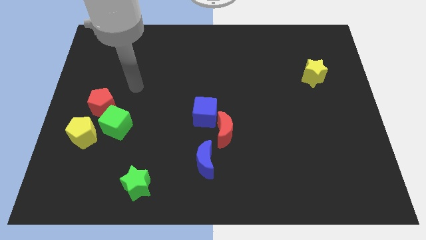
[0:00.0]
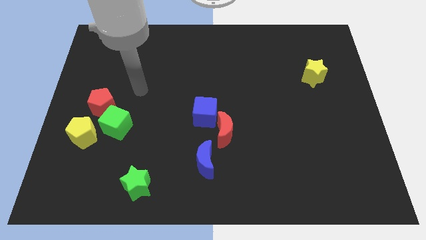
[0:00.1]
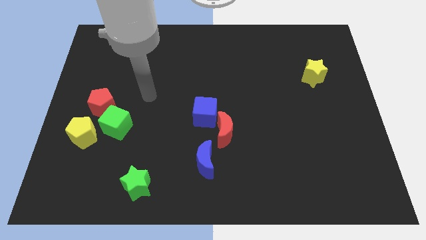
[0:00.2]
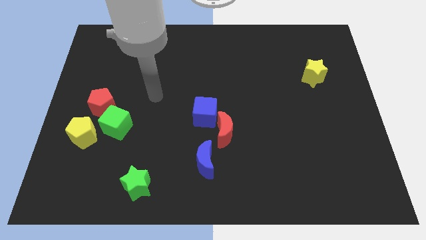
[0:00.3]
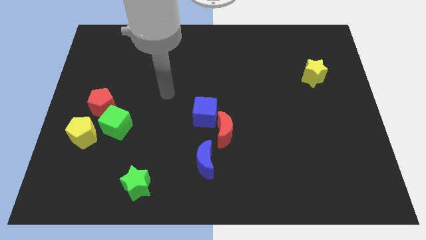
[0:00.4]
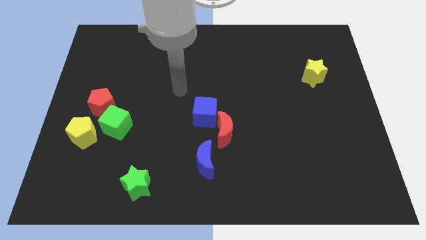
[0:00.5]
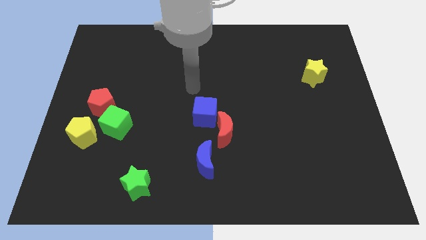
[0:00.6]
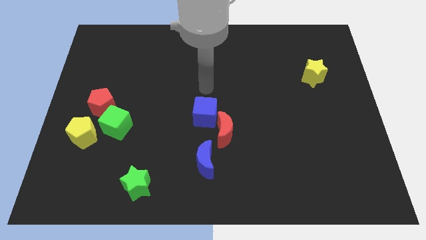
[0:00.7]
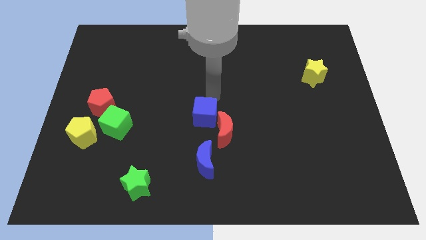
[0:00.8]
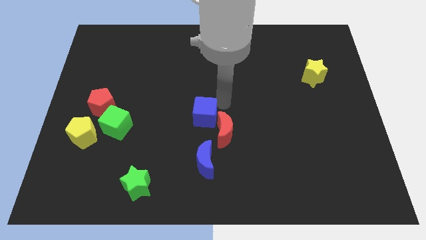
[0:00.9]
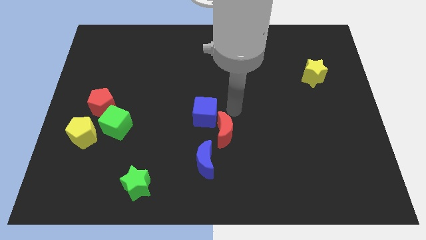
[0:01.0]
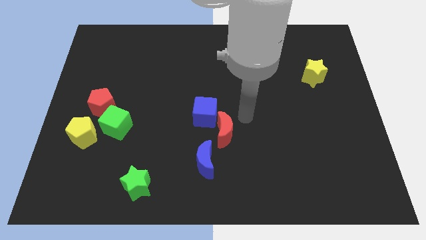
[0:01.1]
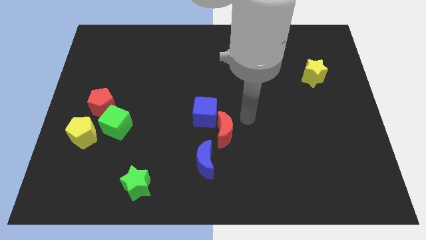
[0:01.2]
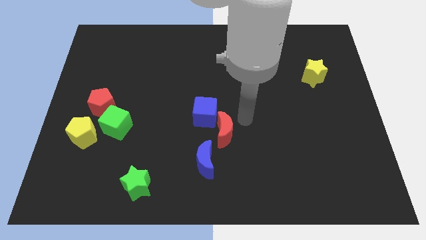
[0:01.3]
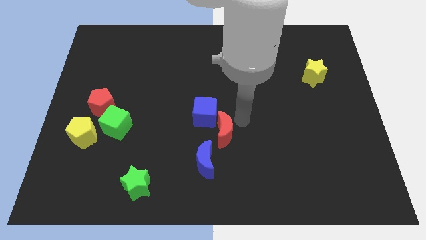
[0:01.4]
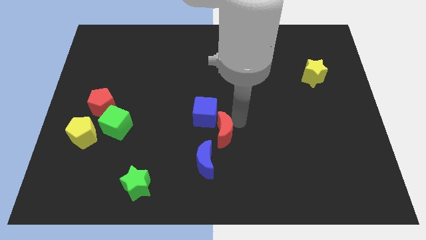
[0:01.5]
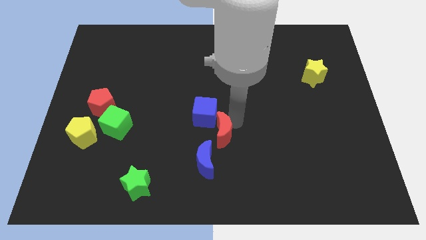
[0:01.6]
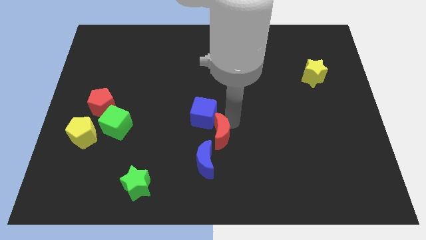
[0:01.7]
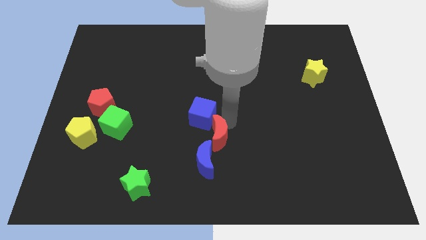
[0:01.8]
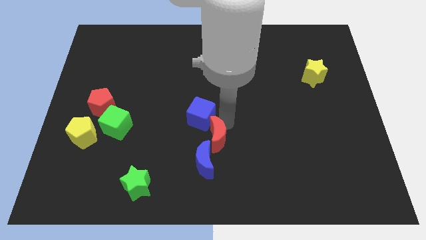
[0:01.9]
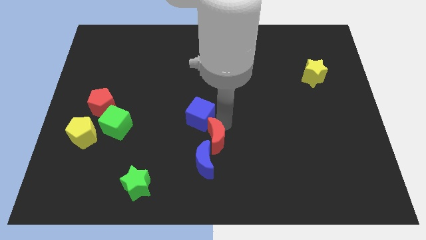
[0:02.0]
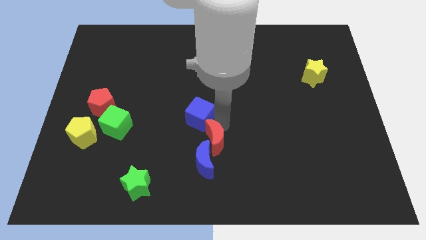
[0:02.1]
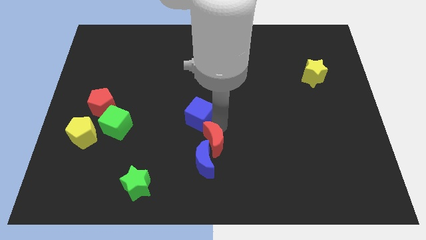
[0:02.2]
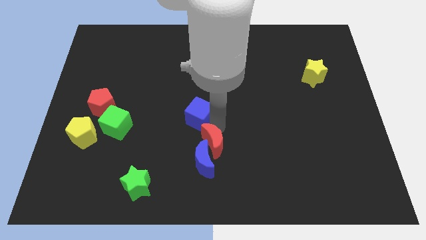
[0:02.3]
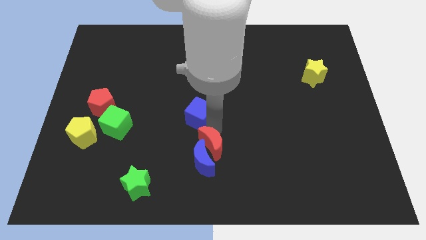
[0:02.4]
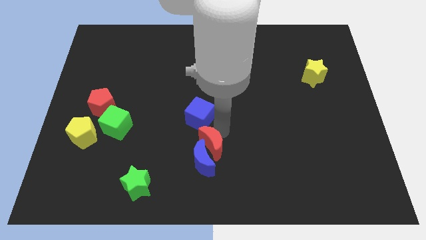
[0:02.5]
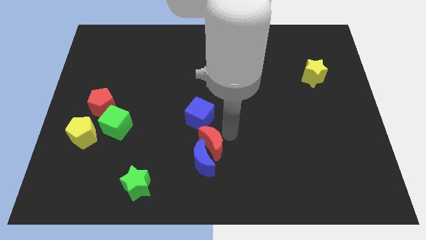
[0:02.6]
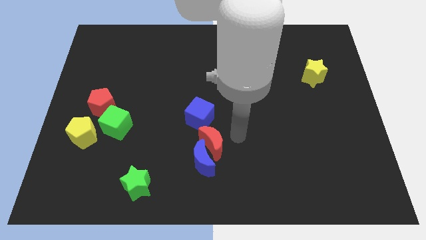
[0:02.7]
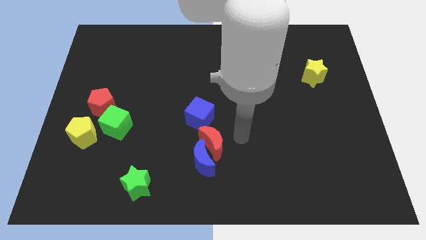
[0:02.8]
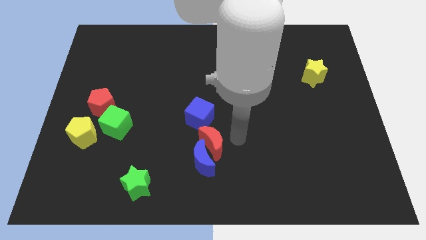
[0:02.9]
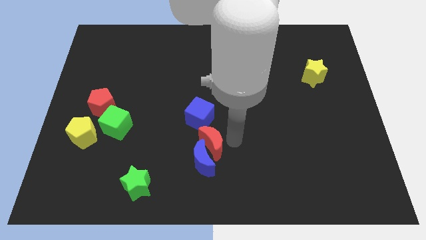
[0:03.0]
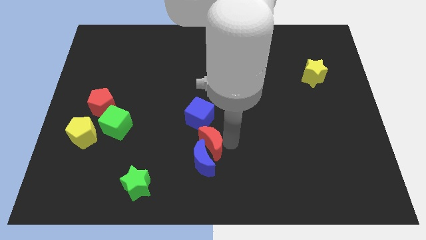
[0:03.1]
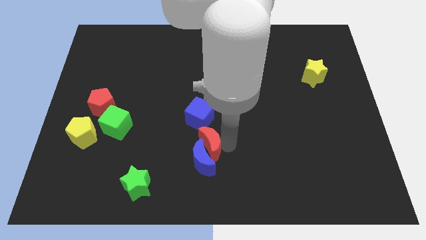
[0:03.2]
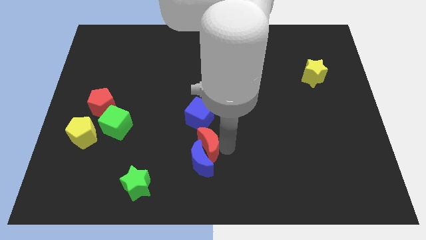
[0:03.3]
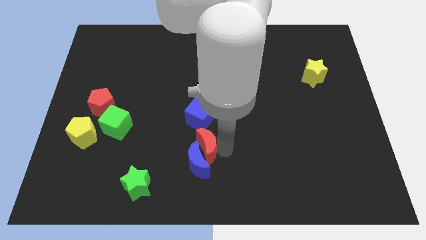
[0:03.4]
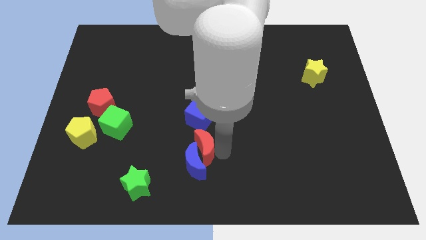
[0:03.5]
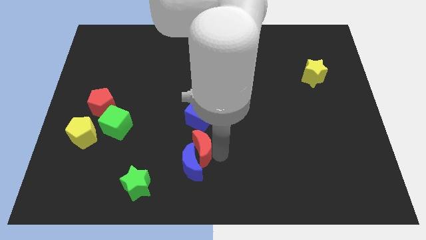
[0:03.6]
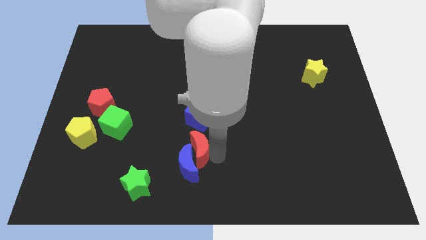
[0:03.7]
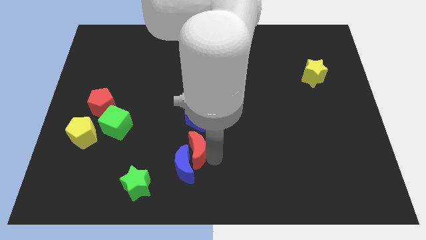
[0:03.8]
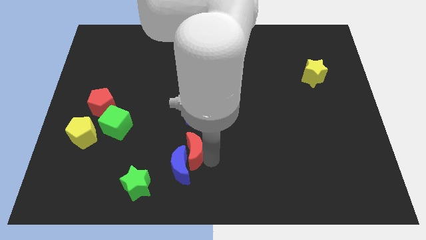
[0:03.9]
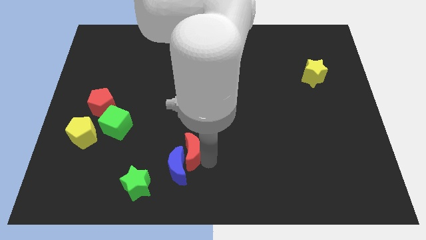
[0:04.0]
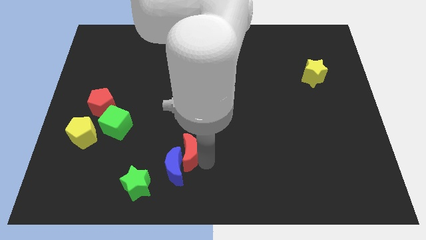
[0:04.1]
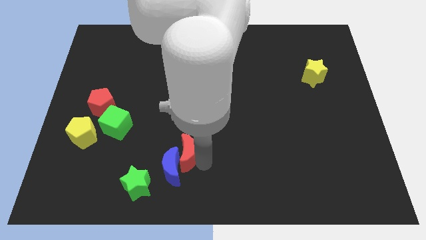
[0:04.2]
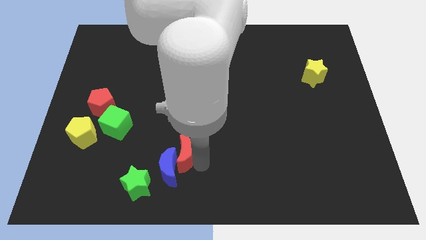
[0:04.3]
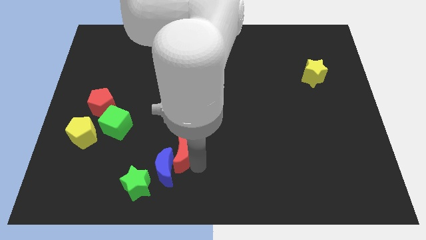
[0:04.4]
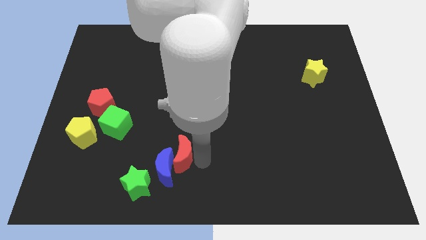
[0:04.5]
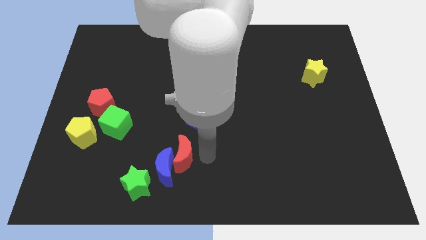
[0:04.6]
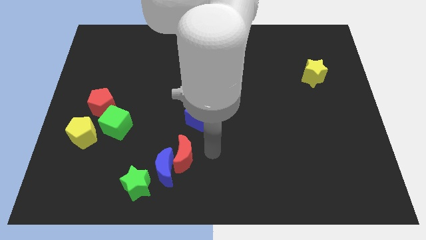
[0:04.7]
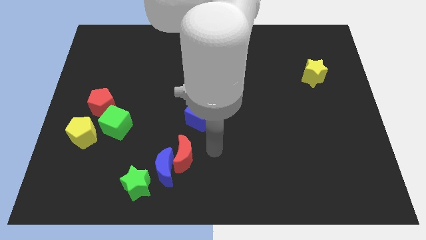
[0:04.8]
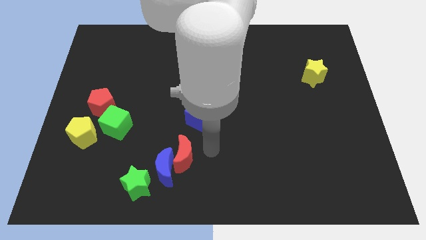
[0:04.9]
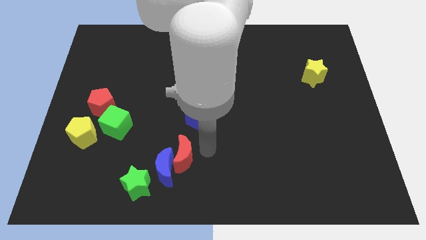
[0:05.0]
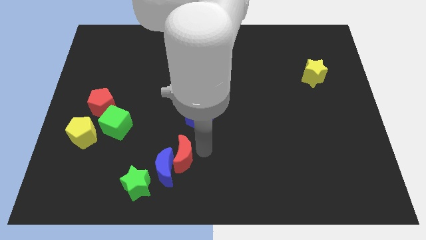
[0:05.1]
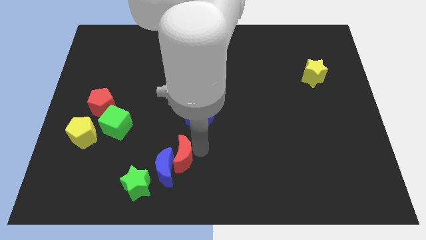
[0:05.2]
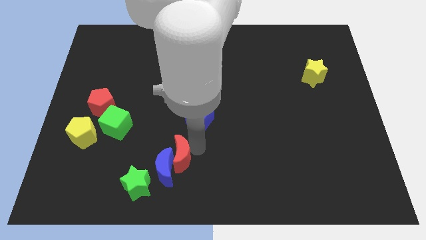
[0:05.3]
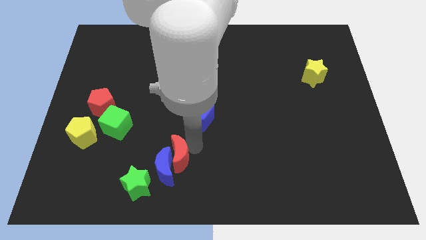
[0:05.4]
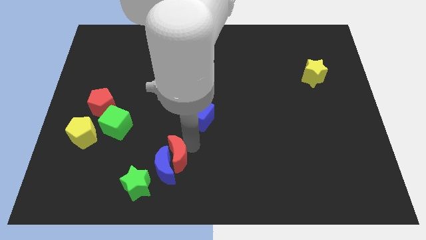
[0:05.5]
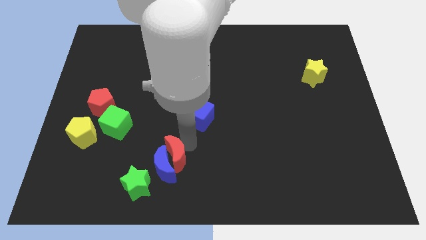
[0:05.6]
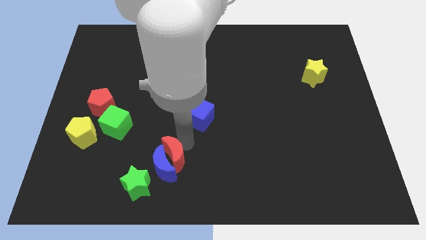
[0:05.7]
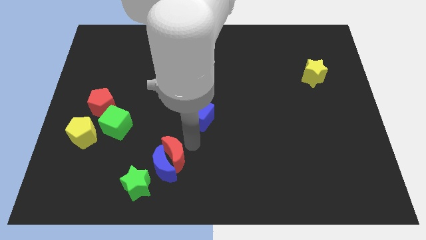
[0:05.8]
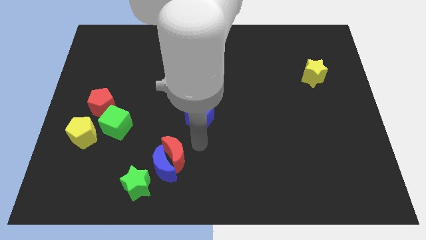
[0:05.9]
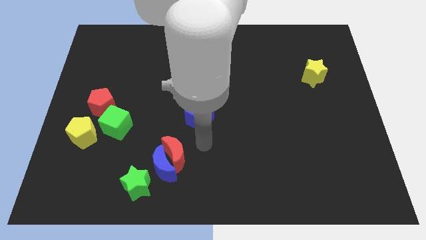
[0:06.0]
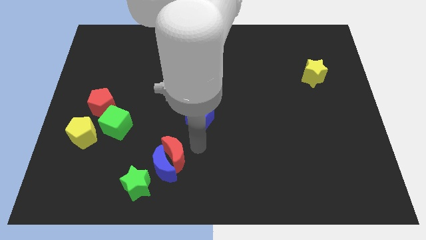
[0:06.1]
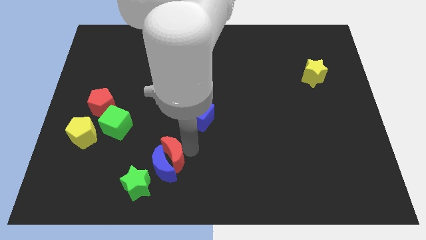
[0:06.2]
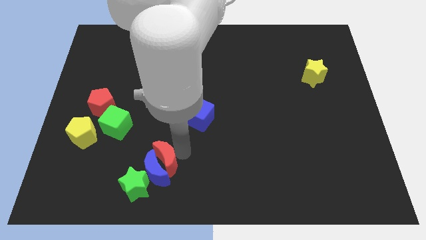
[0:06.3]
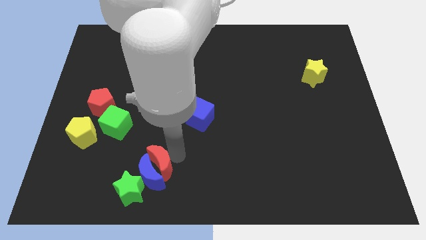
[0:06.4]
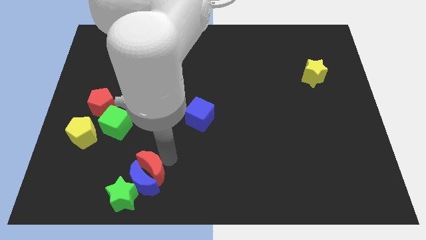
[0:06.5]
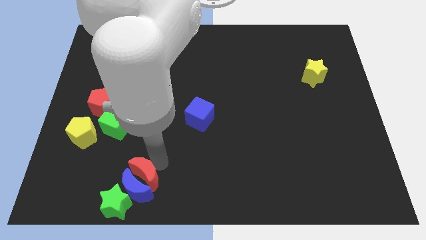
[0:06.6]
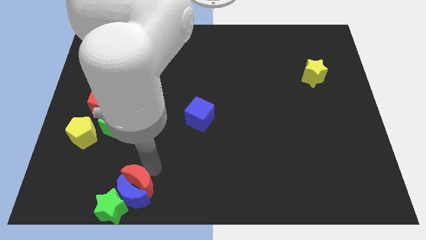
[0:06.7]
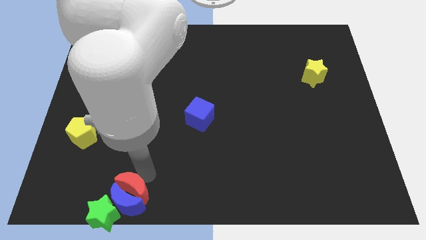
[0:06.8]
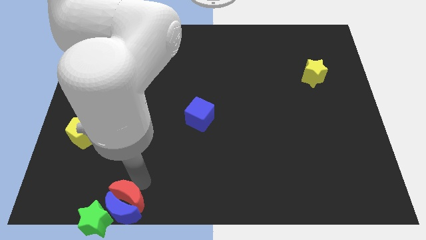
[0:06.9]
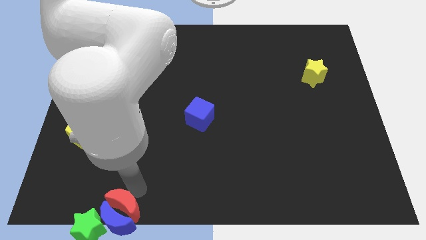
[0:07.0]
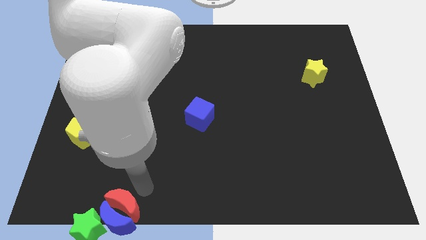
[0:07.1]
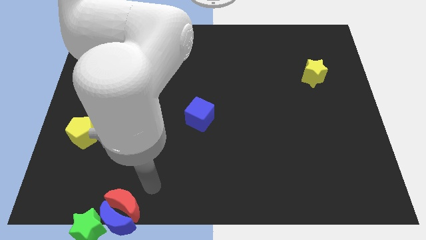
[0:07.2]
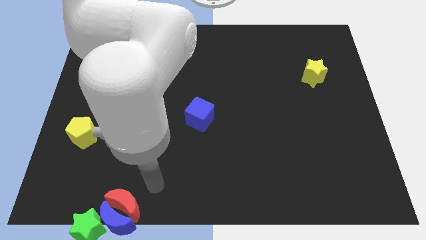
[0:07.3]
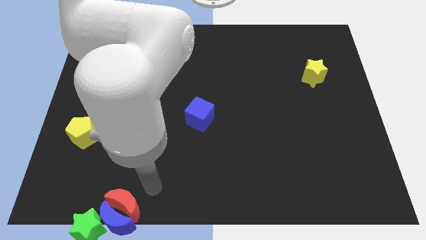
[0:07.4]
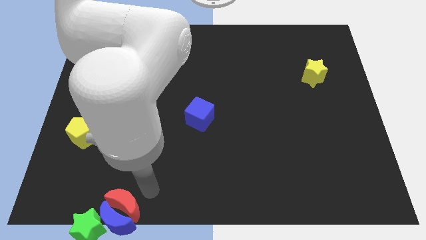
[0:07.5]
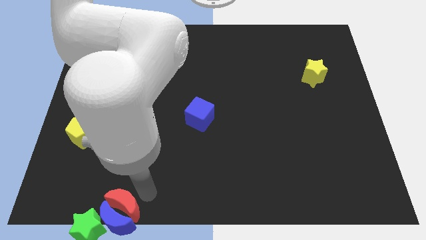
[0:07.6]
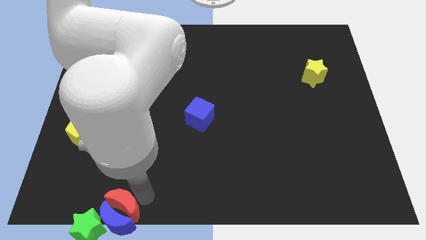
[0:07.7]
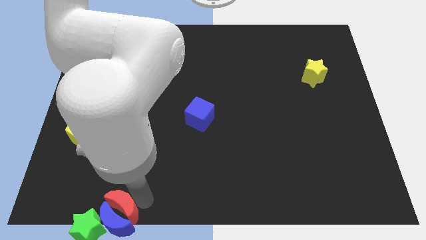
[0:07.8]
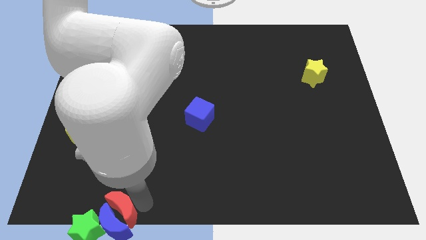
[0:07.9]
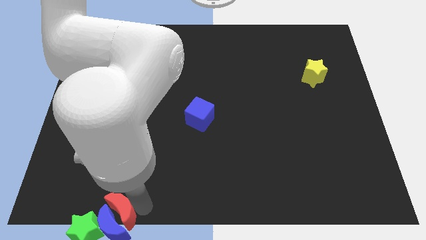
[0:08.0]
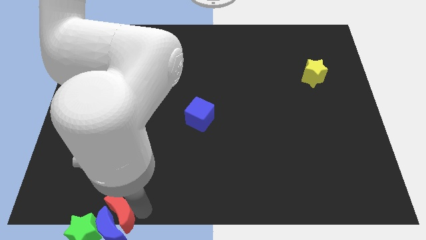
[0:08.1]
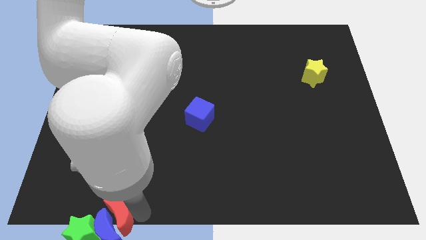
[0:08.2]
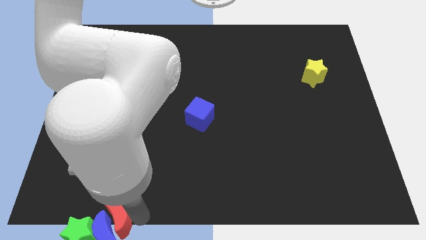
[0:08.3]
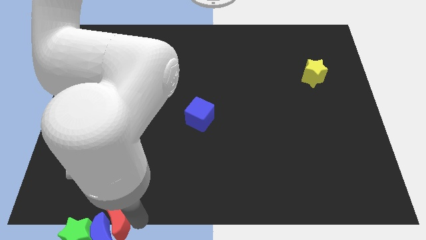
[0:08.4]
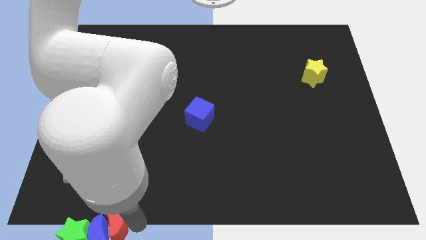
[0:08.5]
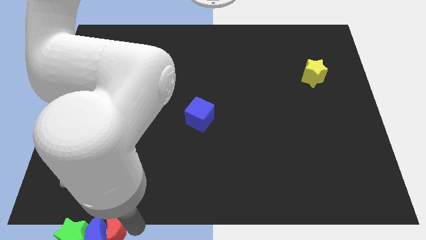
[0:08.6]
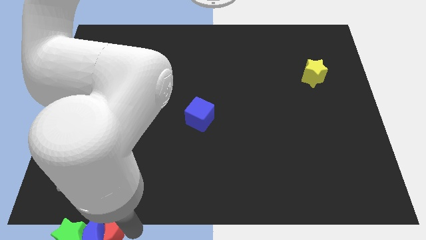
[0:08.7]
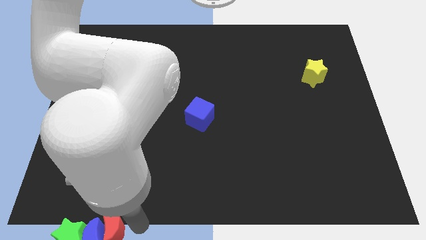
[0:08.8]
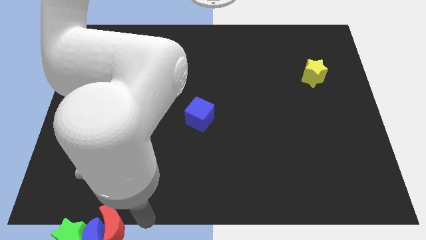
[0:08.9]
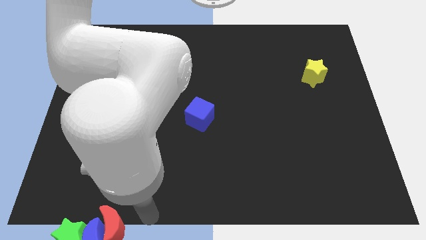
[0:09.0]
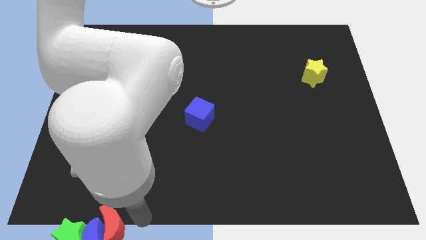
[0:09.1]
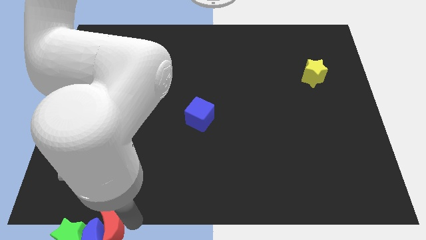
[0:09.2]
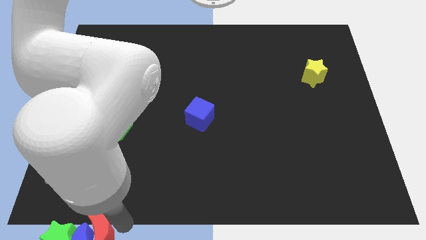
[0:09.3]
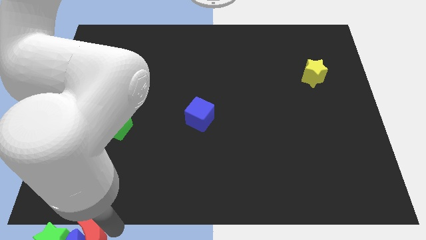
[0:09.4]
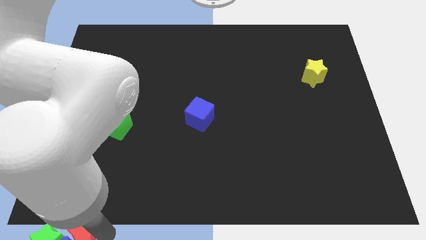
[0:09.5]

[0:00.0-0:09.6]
put the red moon close to the green star
